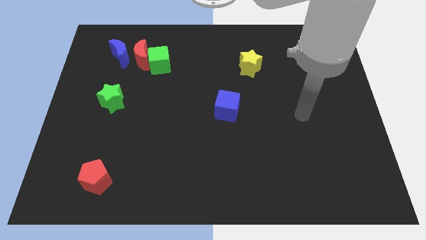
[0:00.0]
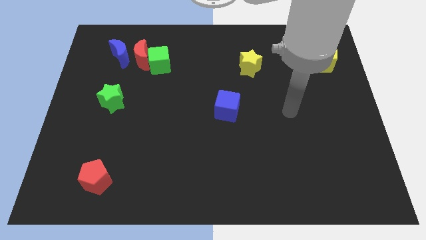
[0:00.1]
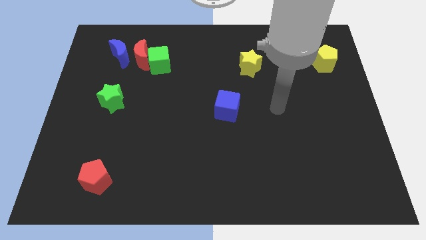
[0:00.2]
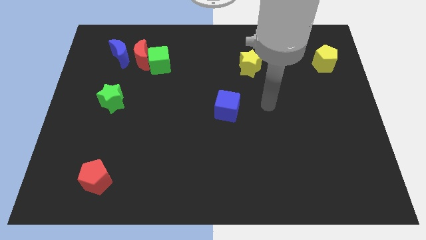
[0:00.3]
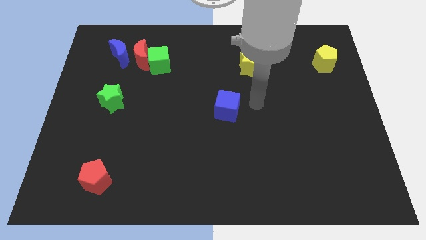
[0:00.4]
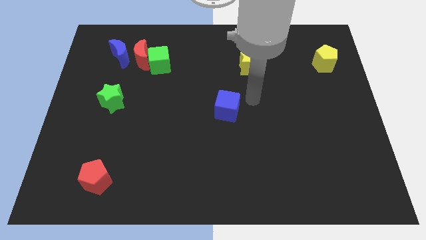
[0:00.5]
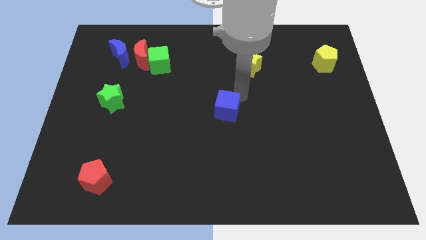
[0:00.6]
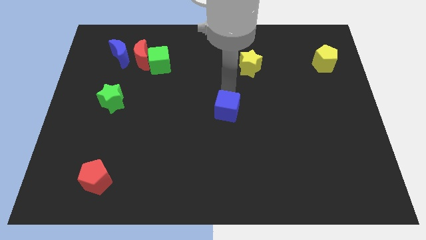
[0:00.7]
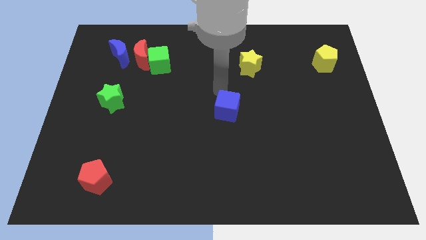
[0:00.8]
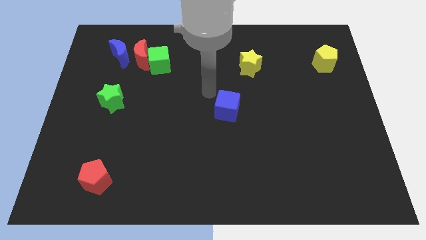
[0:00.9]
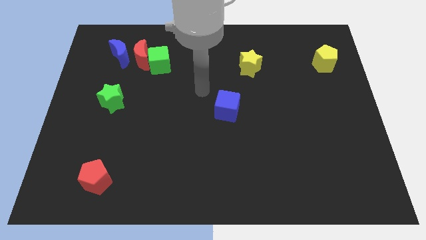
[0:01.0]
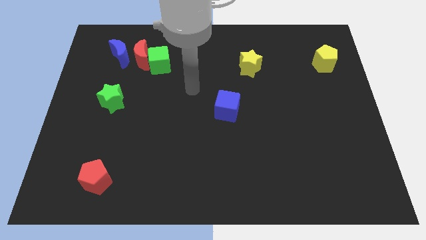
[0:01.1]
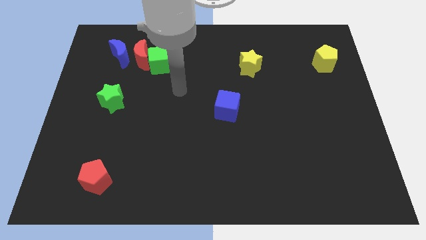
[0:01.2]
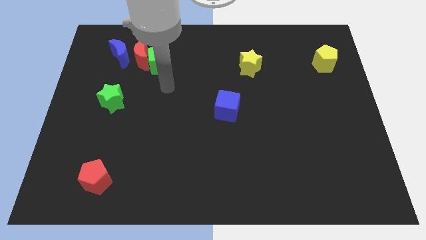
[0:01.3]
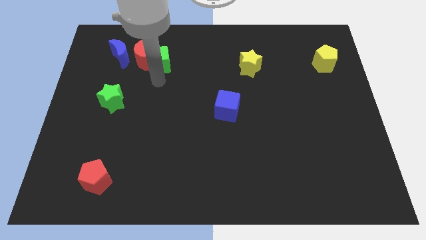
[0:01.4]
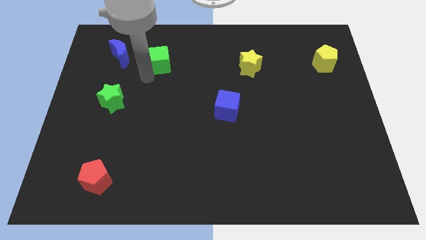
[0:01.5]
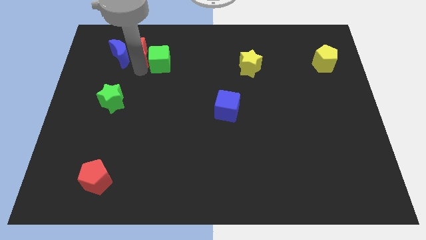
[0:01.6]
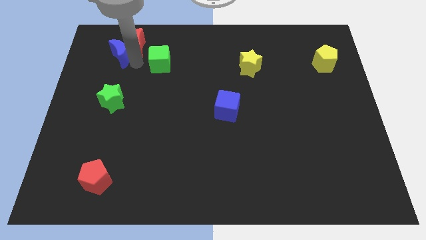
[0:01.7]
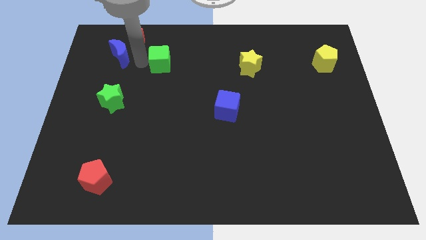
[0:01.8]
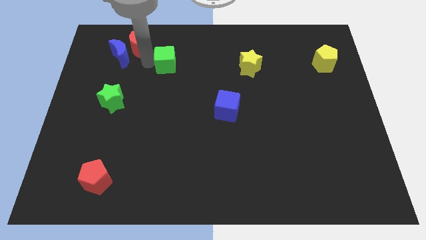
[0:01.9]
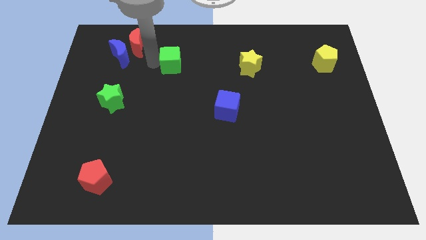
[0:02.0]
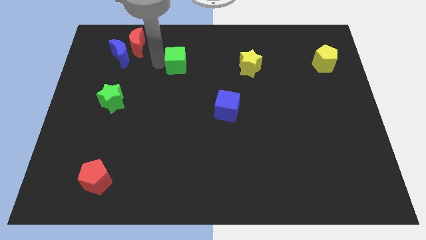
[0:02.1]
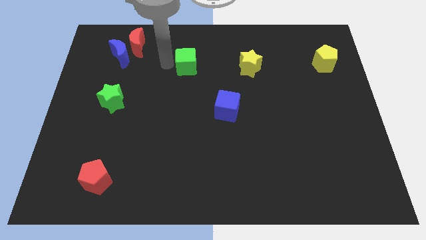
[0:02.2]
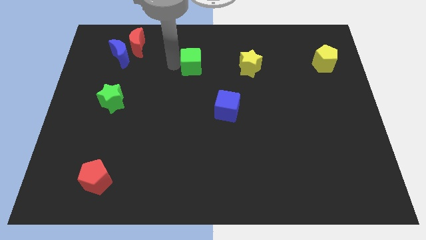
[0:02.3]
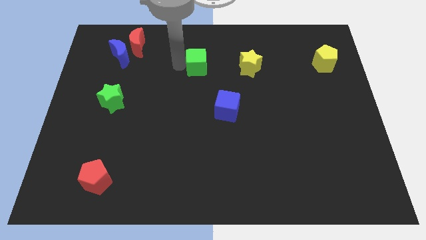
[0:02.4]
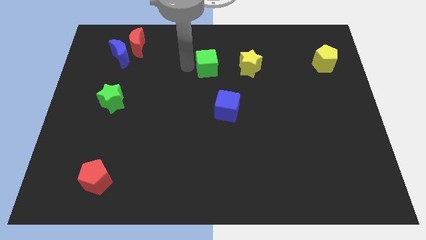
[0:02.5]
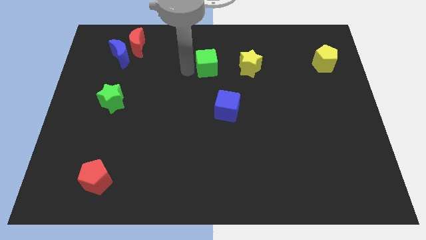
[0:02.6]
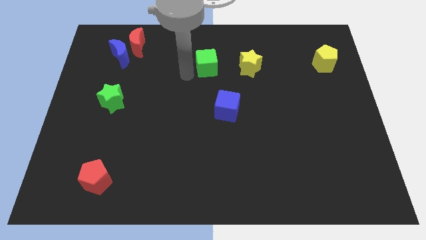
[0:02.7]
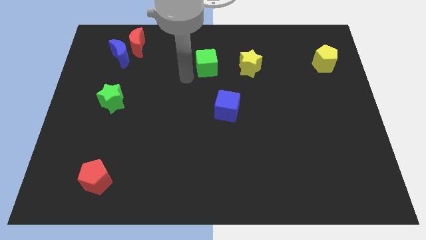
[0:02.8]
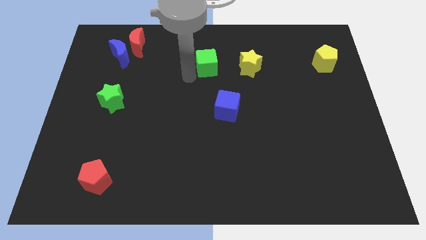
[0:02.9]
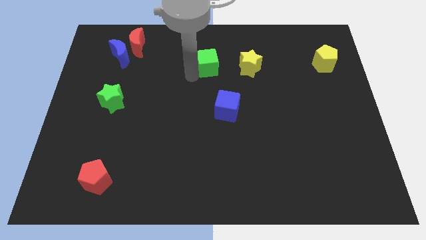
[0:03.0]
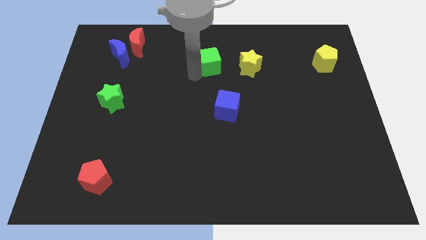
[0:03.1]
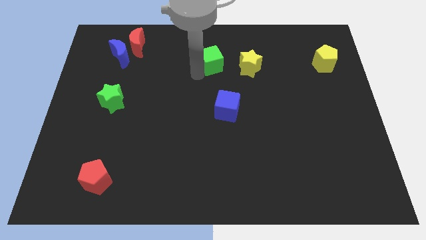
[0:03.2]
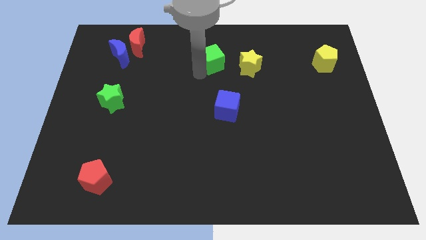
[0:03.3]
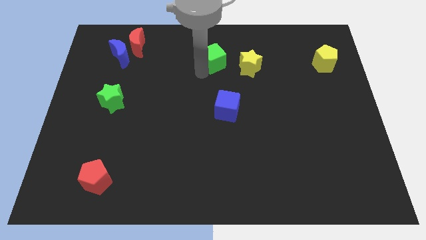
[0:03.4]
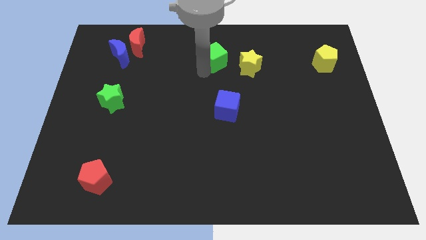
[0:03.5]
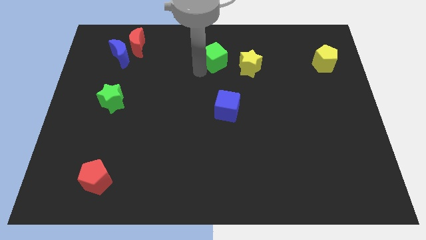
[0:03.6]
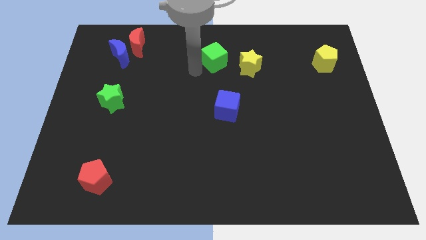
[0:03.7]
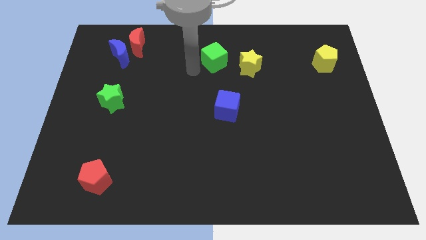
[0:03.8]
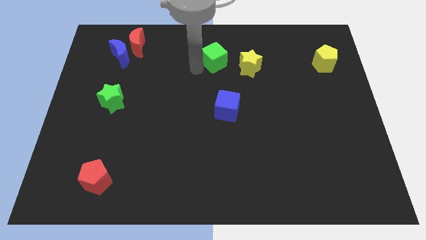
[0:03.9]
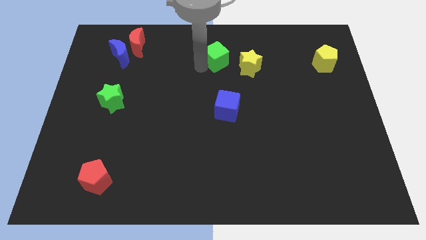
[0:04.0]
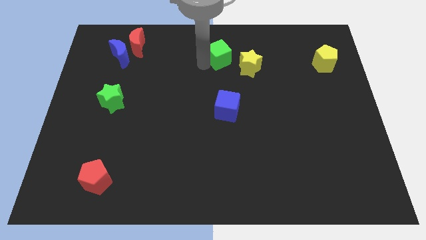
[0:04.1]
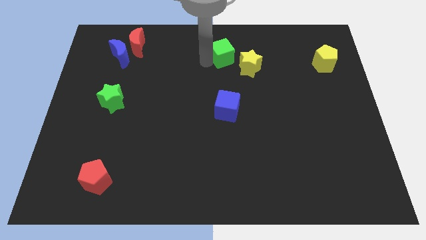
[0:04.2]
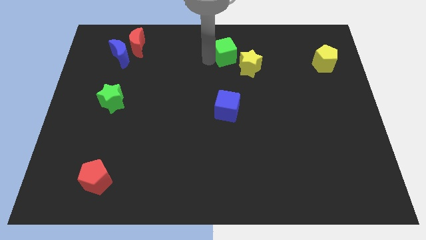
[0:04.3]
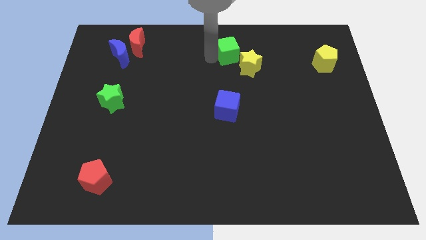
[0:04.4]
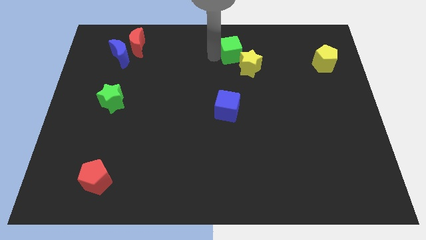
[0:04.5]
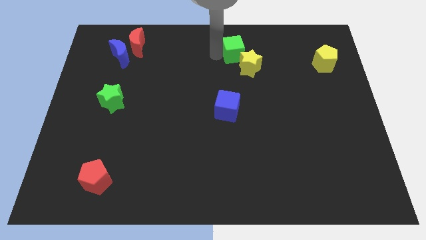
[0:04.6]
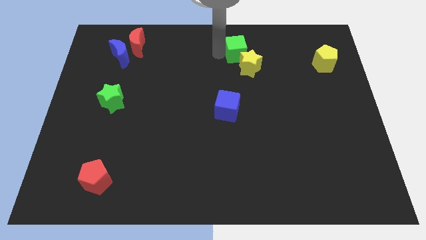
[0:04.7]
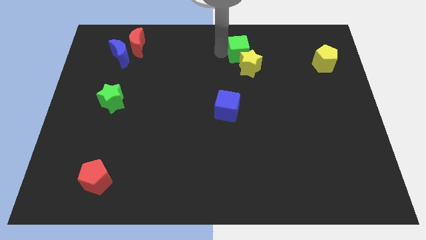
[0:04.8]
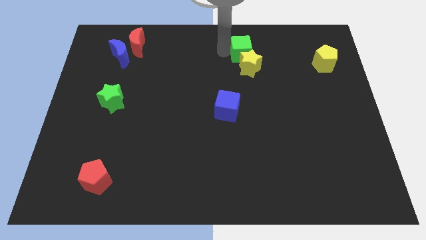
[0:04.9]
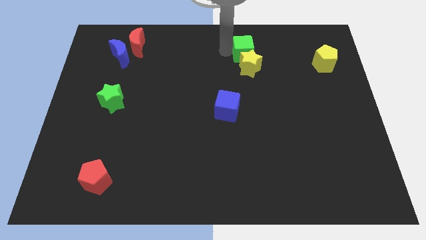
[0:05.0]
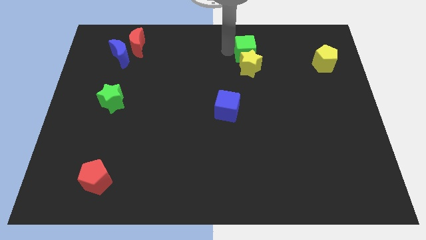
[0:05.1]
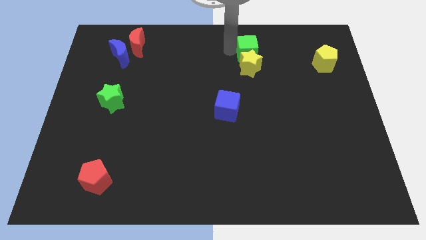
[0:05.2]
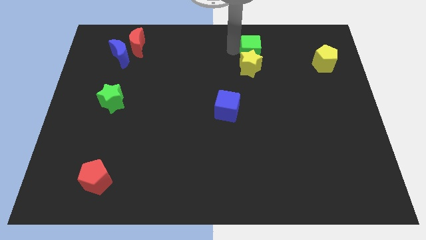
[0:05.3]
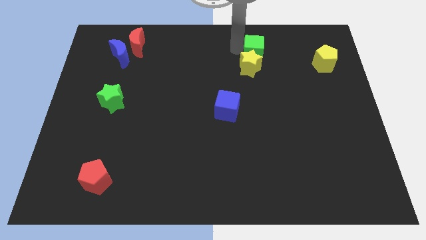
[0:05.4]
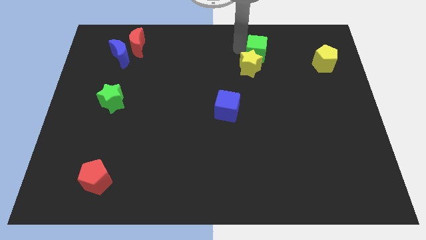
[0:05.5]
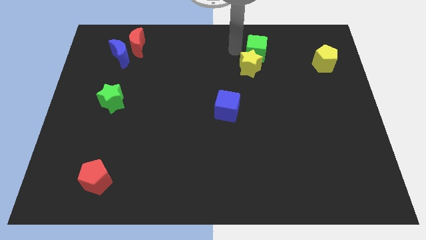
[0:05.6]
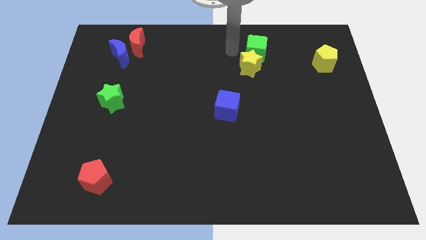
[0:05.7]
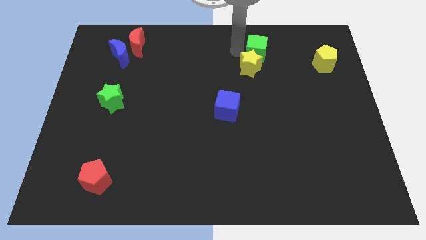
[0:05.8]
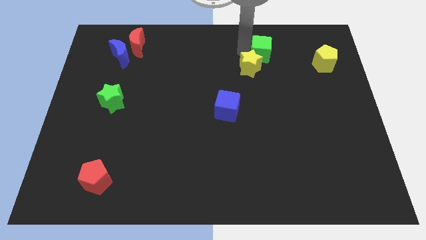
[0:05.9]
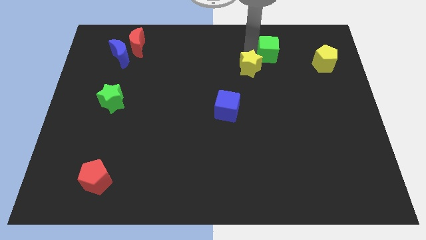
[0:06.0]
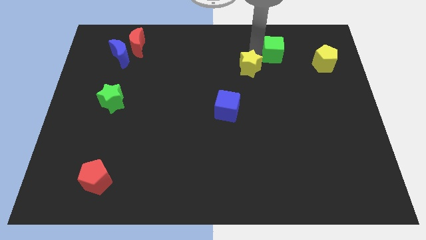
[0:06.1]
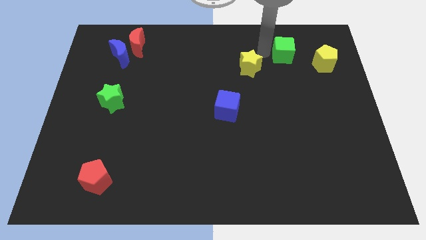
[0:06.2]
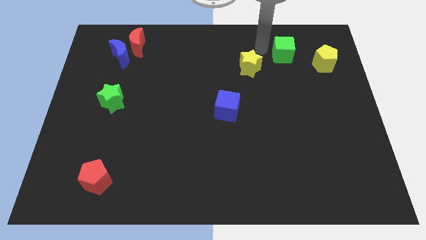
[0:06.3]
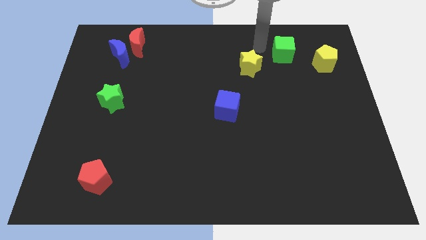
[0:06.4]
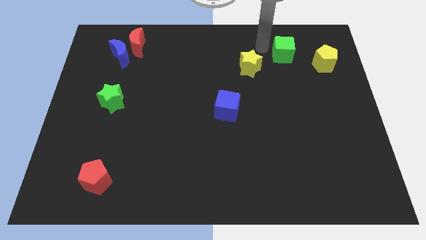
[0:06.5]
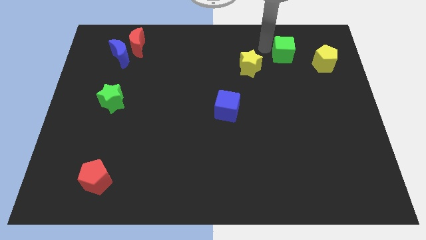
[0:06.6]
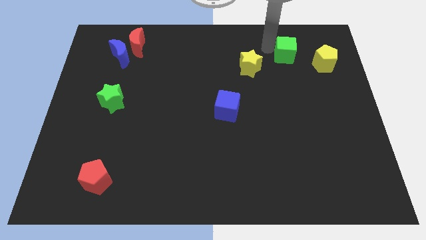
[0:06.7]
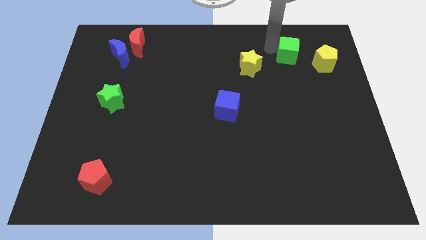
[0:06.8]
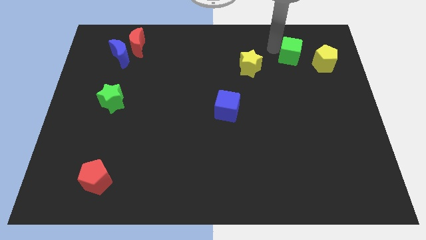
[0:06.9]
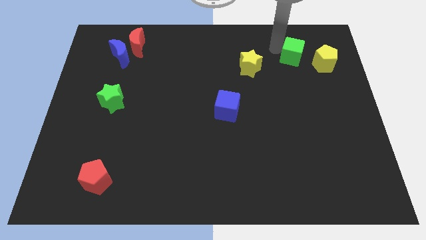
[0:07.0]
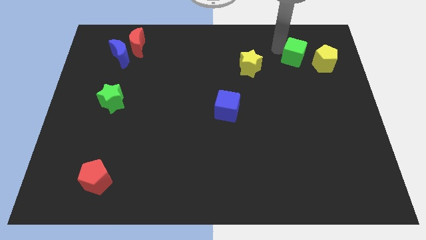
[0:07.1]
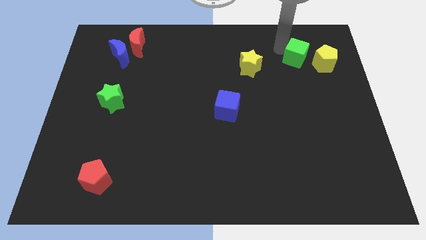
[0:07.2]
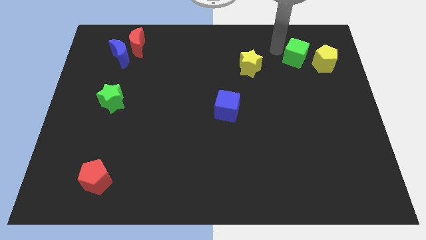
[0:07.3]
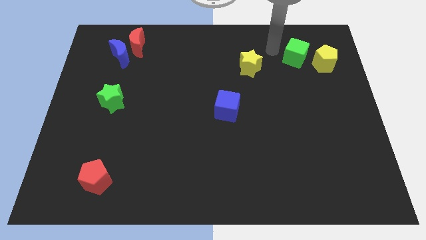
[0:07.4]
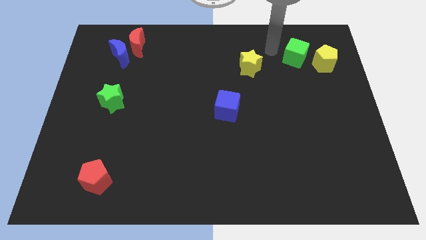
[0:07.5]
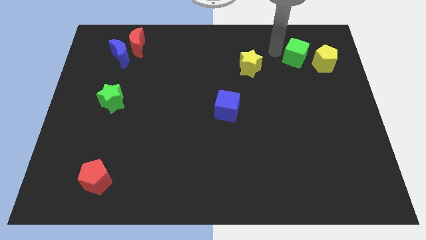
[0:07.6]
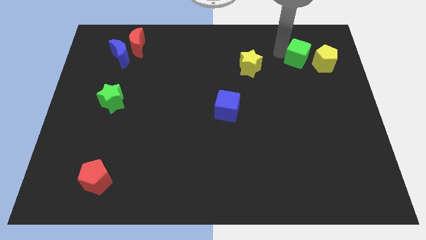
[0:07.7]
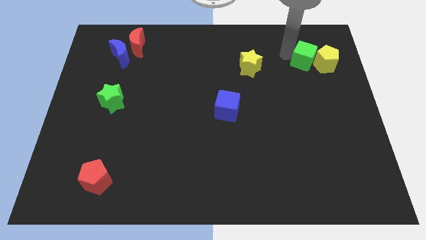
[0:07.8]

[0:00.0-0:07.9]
slide the green cube next to the yellow pentagon
